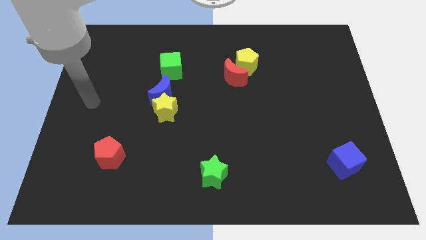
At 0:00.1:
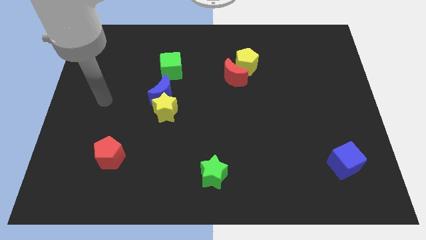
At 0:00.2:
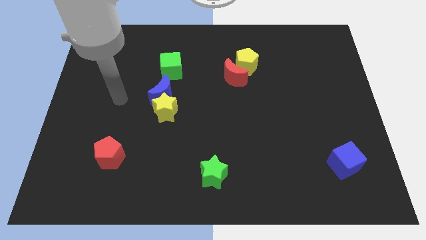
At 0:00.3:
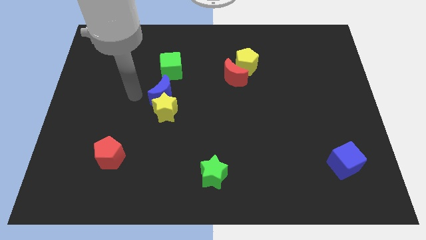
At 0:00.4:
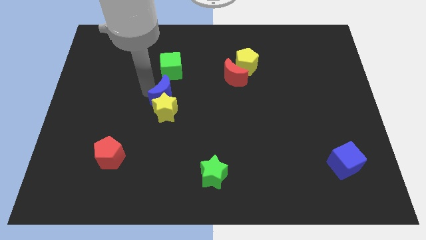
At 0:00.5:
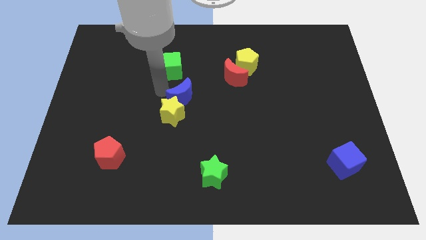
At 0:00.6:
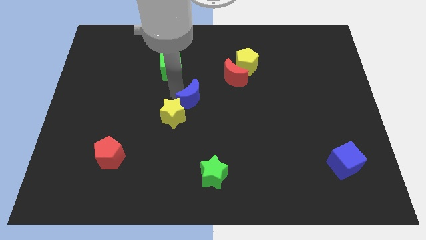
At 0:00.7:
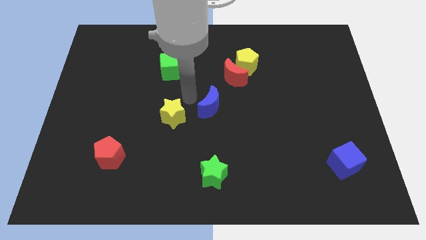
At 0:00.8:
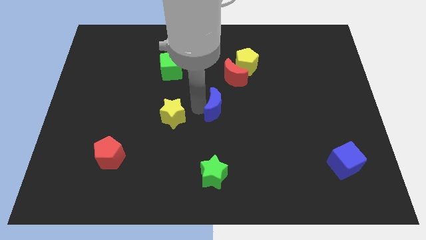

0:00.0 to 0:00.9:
pull the yellow star apart from the blue moon

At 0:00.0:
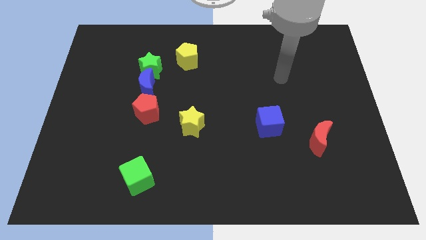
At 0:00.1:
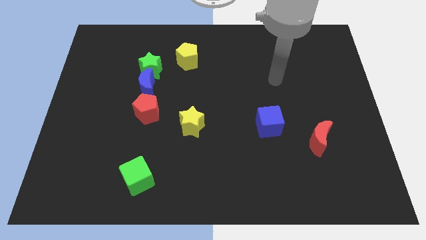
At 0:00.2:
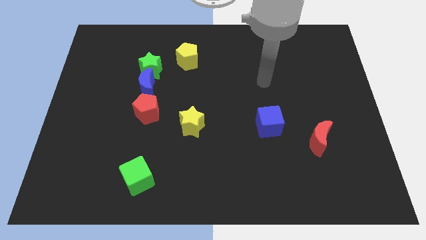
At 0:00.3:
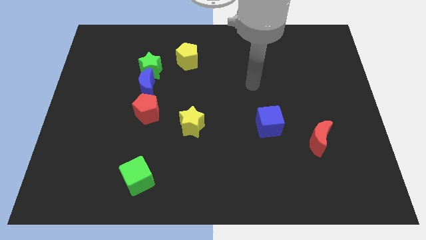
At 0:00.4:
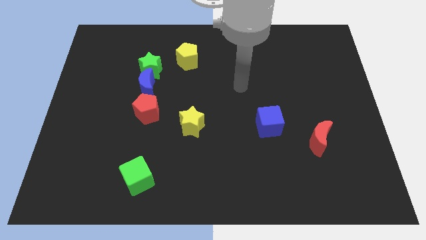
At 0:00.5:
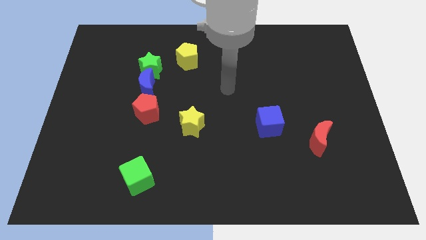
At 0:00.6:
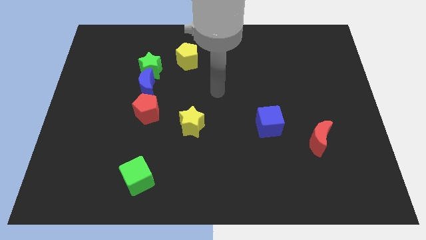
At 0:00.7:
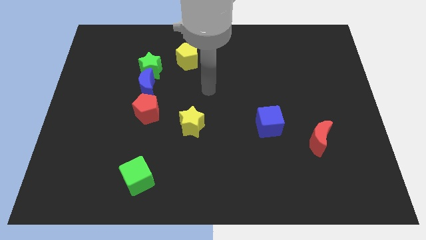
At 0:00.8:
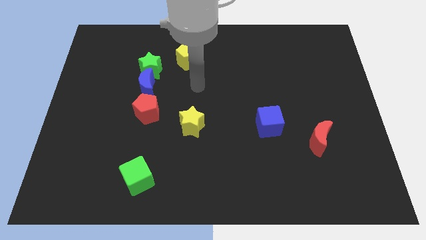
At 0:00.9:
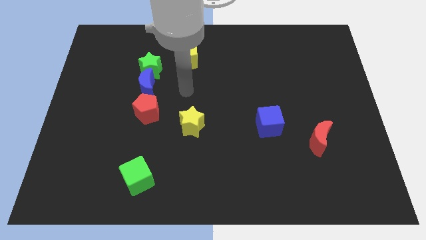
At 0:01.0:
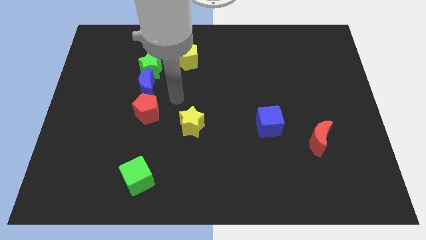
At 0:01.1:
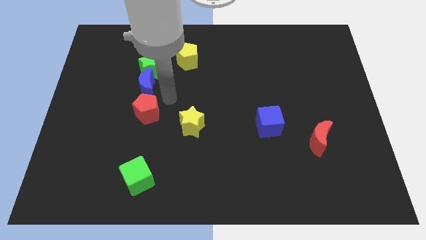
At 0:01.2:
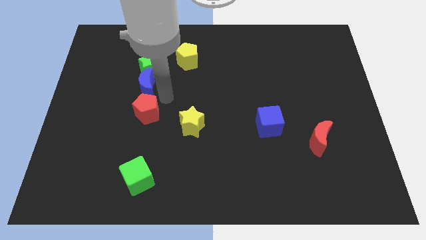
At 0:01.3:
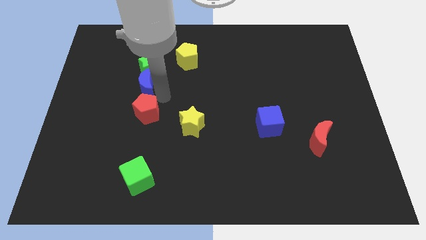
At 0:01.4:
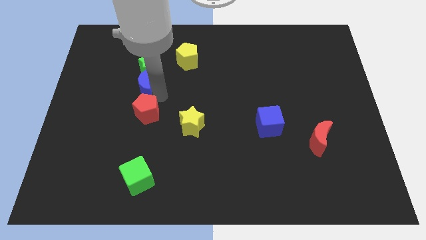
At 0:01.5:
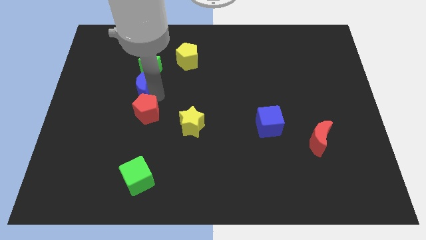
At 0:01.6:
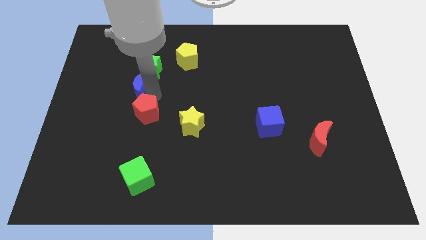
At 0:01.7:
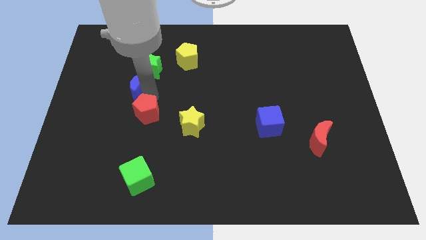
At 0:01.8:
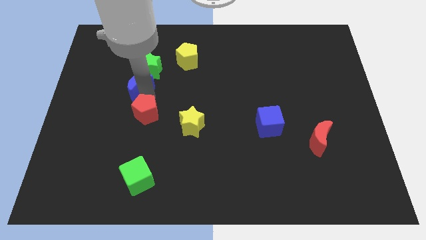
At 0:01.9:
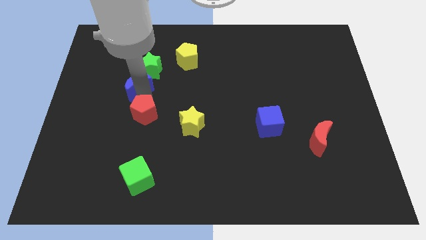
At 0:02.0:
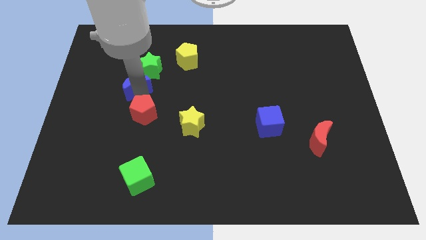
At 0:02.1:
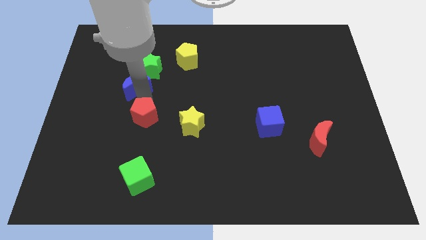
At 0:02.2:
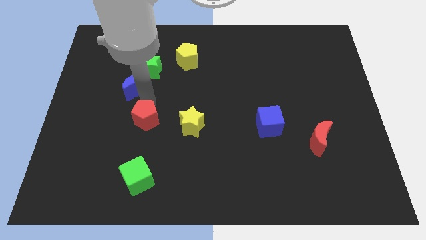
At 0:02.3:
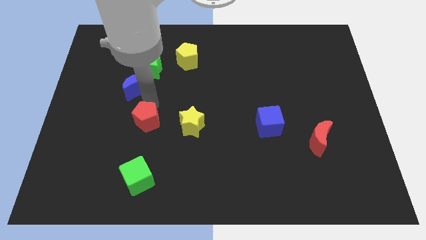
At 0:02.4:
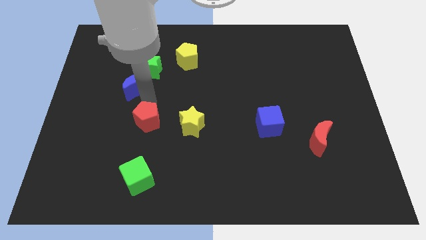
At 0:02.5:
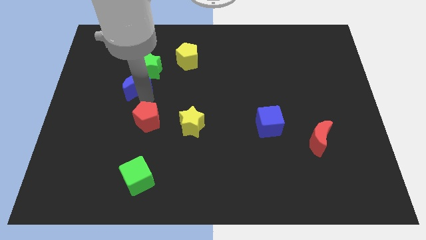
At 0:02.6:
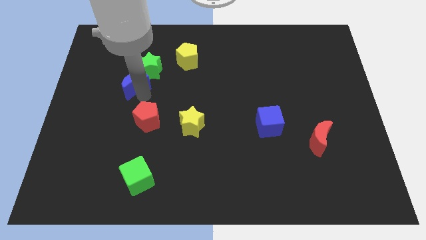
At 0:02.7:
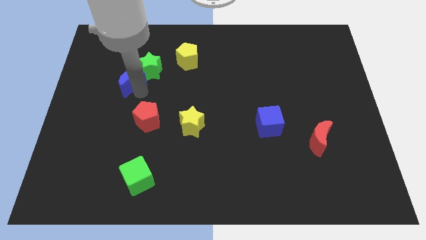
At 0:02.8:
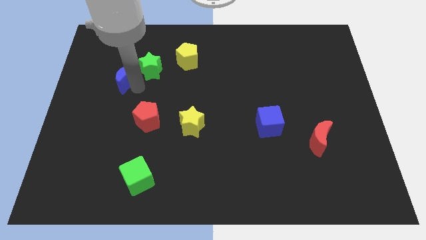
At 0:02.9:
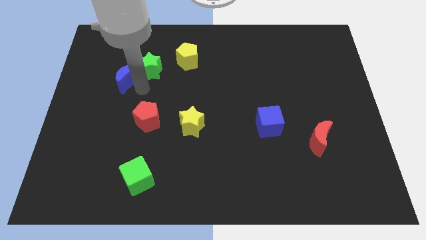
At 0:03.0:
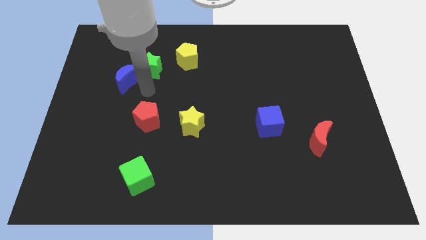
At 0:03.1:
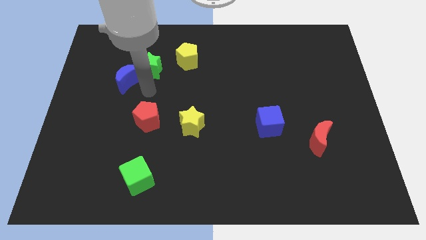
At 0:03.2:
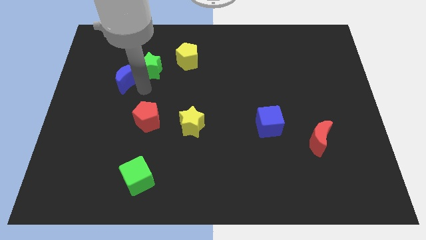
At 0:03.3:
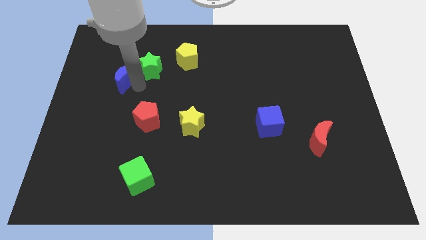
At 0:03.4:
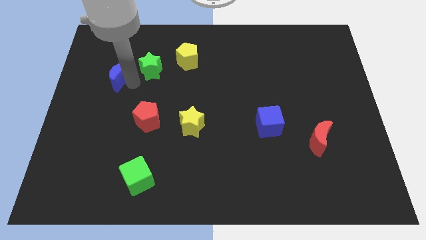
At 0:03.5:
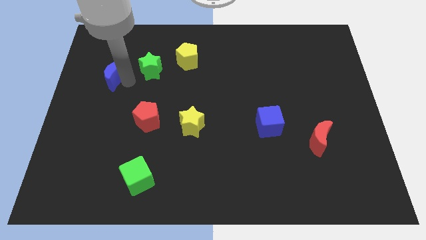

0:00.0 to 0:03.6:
move the blue moon away from the green star and red pentagon

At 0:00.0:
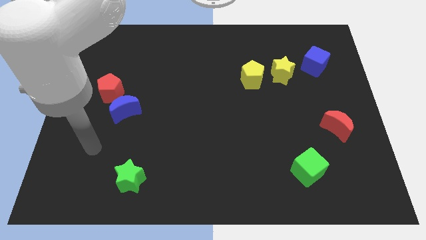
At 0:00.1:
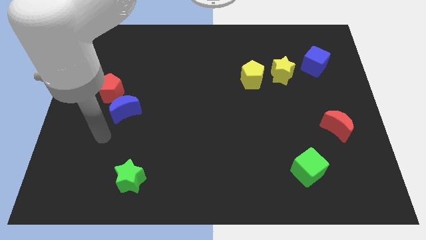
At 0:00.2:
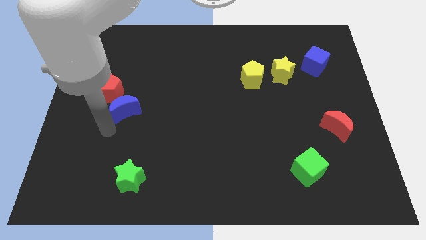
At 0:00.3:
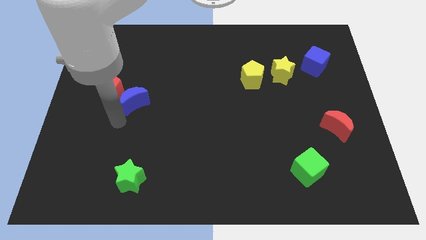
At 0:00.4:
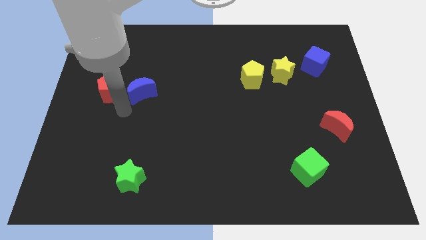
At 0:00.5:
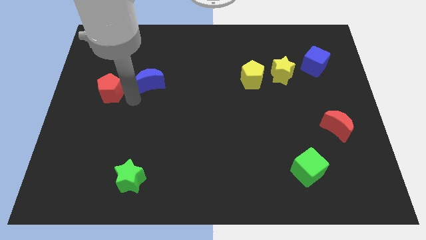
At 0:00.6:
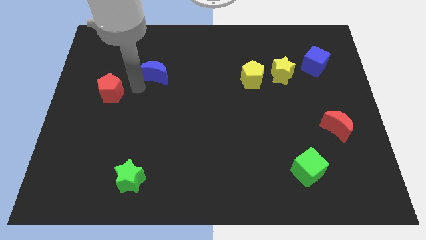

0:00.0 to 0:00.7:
separate the red pentagon from the blue moon

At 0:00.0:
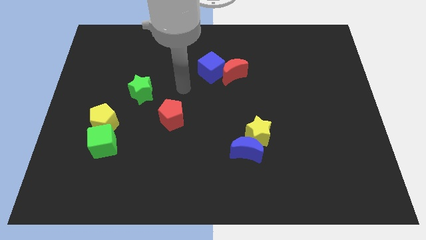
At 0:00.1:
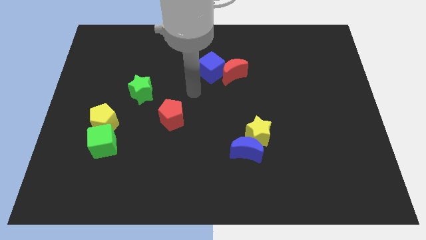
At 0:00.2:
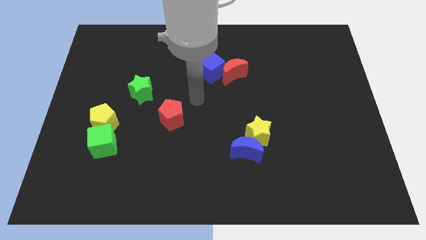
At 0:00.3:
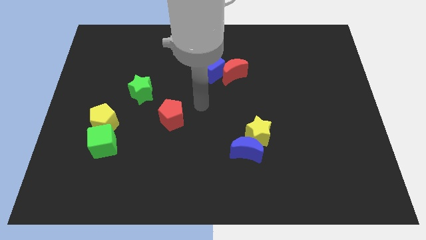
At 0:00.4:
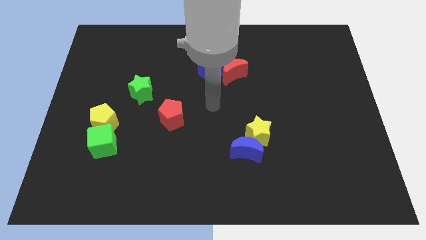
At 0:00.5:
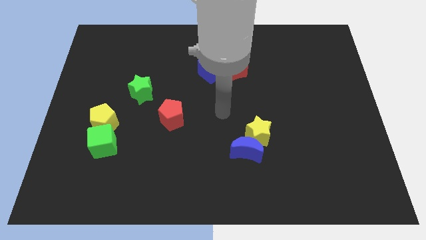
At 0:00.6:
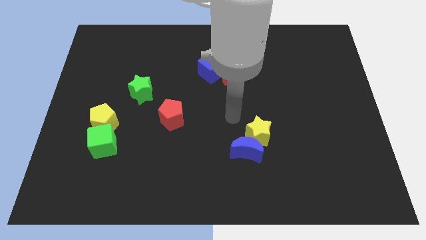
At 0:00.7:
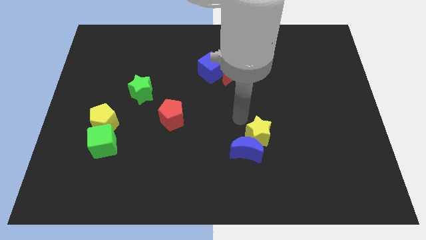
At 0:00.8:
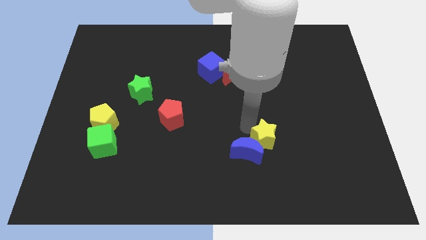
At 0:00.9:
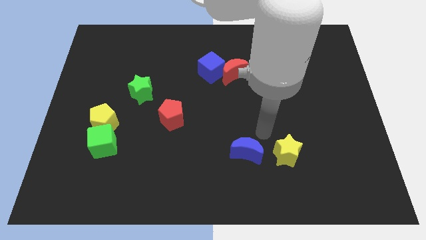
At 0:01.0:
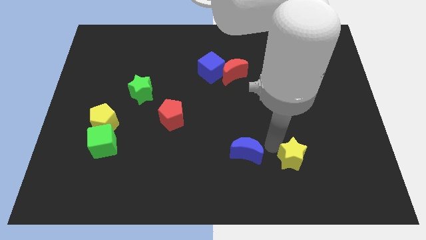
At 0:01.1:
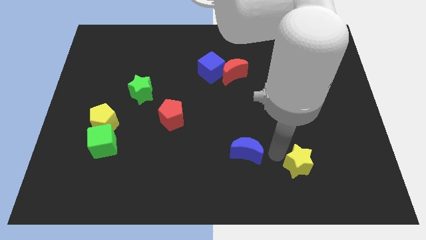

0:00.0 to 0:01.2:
move the blue moon away from the yellow star

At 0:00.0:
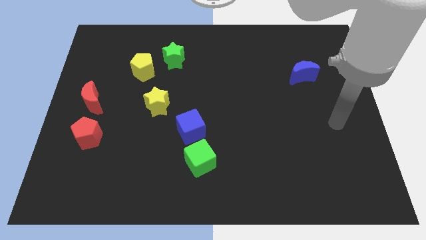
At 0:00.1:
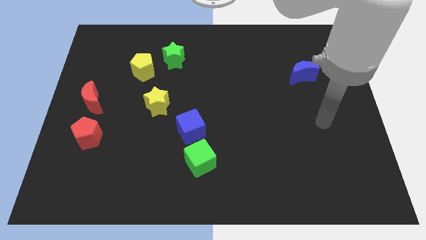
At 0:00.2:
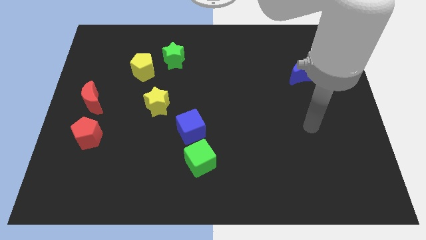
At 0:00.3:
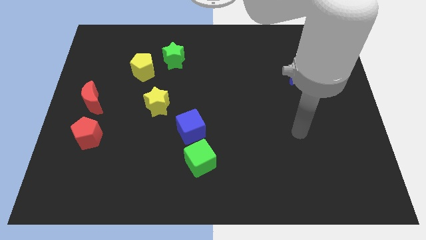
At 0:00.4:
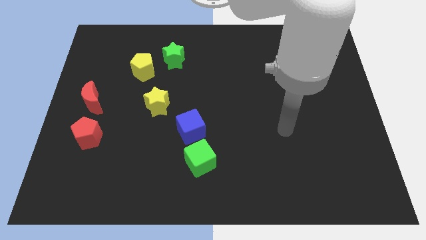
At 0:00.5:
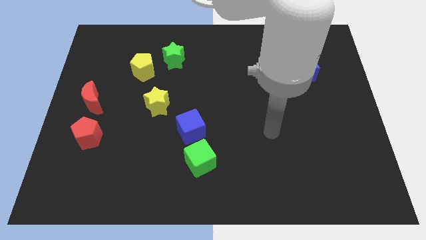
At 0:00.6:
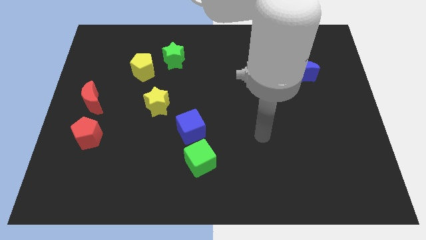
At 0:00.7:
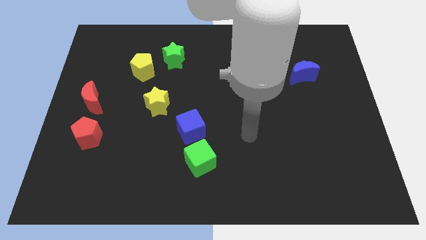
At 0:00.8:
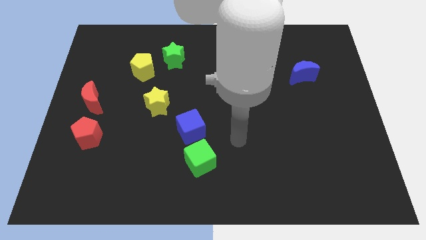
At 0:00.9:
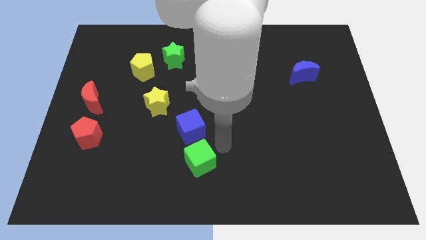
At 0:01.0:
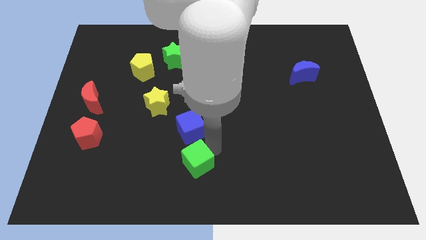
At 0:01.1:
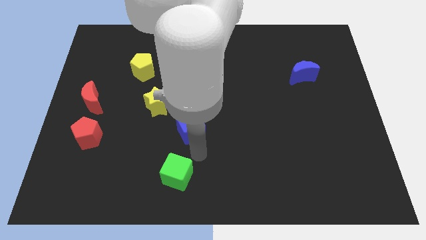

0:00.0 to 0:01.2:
move the blue cube away from the green cube

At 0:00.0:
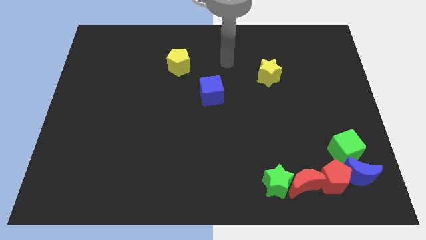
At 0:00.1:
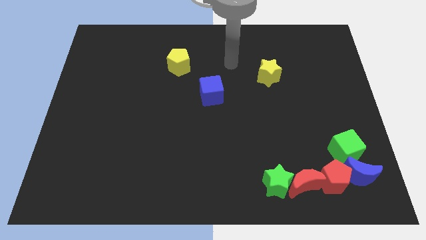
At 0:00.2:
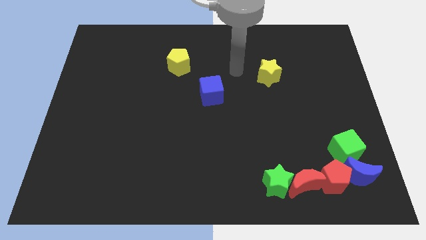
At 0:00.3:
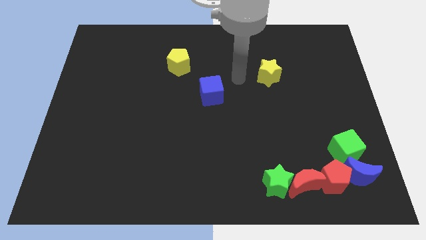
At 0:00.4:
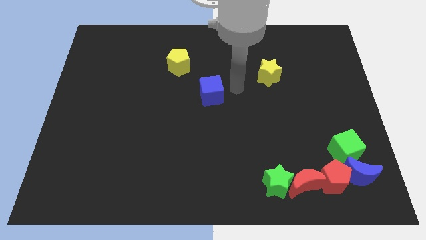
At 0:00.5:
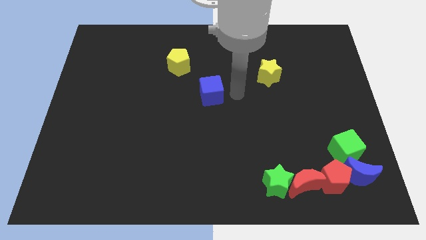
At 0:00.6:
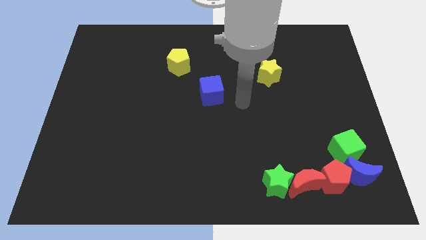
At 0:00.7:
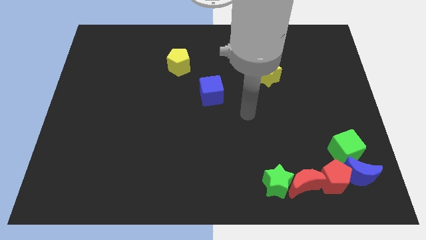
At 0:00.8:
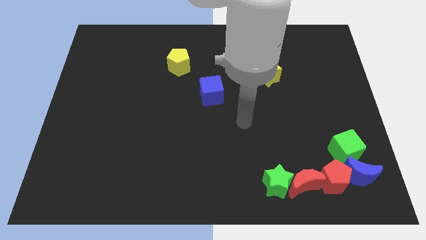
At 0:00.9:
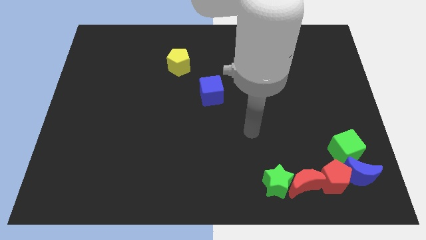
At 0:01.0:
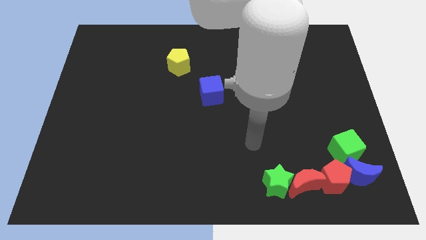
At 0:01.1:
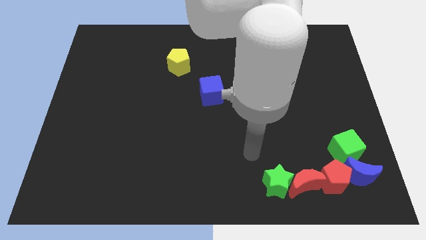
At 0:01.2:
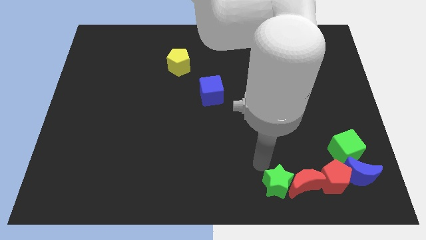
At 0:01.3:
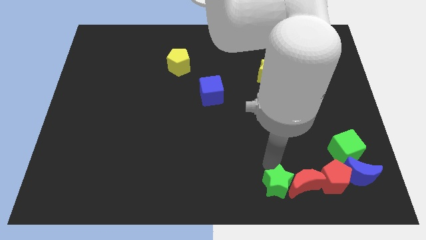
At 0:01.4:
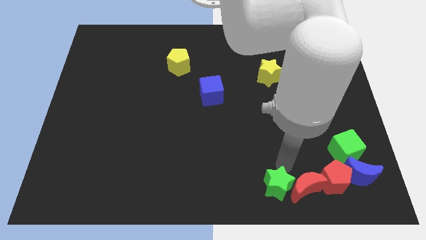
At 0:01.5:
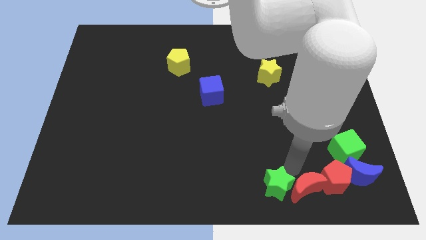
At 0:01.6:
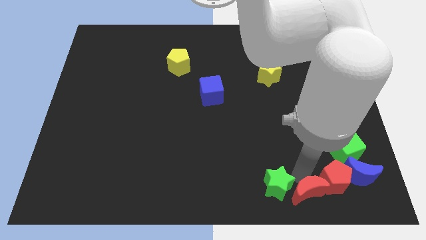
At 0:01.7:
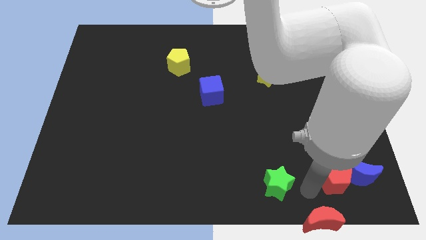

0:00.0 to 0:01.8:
separate the green star from the red moon
